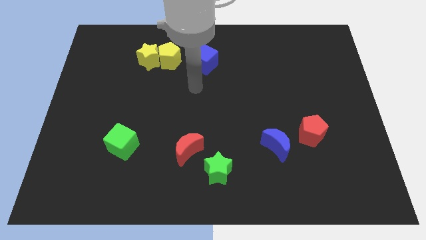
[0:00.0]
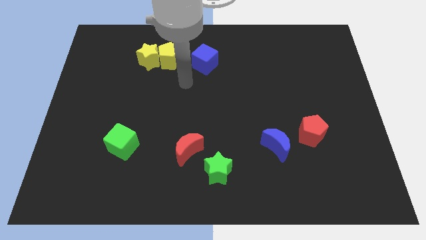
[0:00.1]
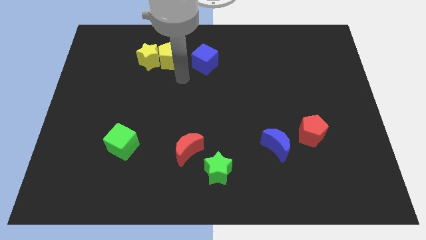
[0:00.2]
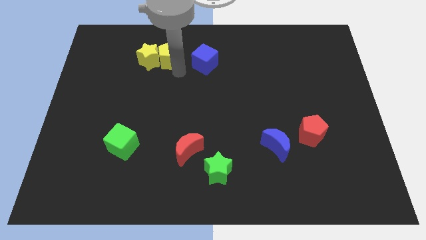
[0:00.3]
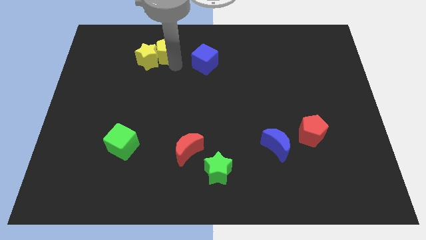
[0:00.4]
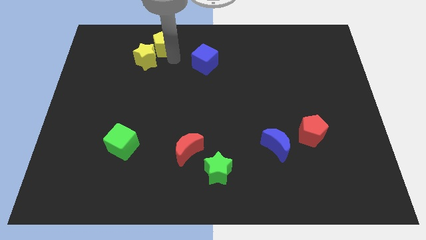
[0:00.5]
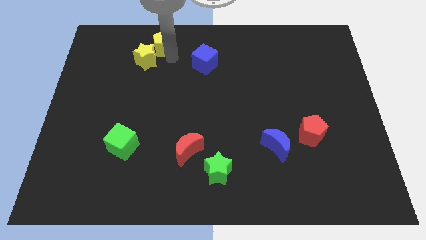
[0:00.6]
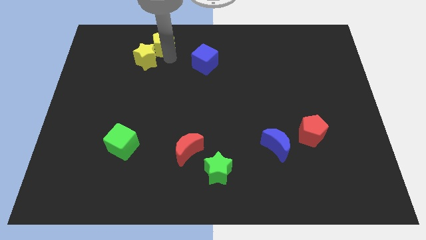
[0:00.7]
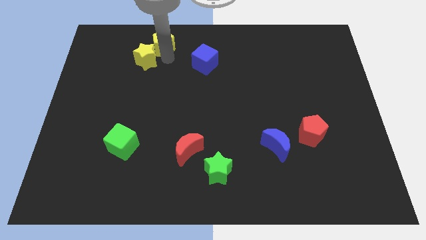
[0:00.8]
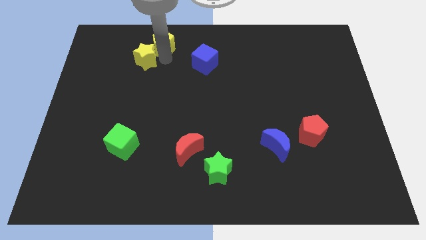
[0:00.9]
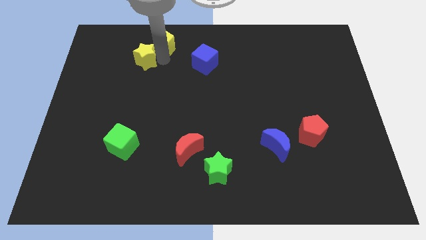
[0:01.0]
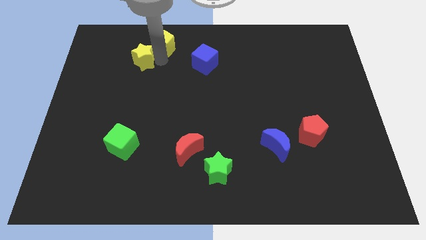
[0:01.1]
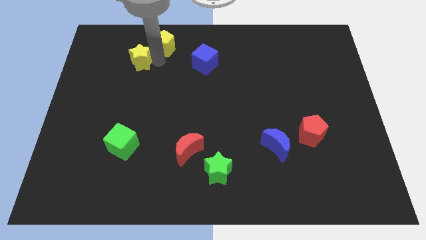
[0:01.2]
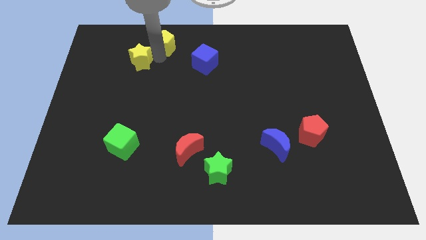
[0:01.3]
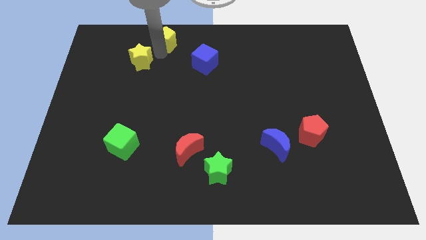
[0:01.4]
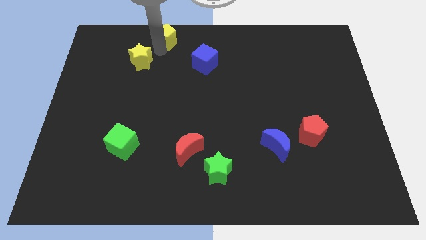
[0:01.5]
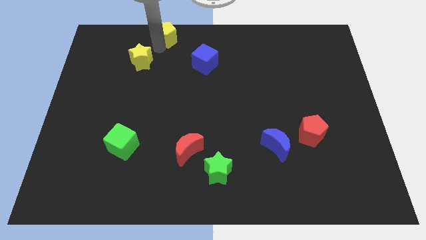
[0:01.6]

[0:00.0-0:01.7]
move the yellow star away from the yellow pentagon

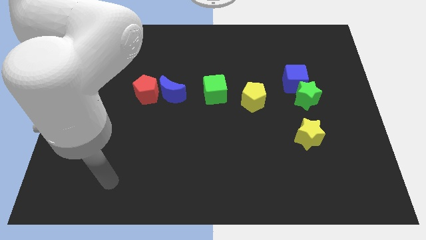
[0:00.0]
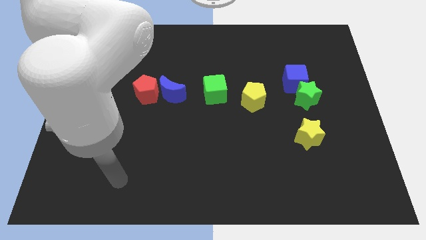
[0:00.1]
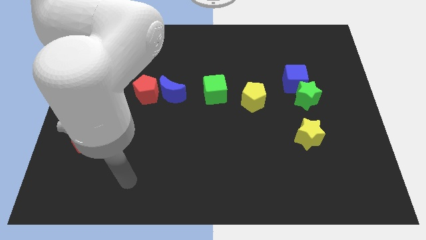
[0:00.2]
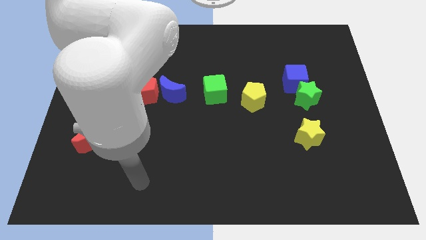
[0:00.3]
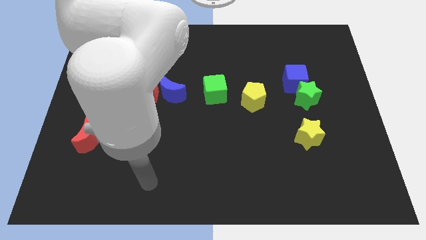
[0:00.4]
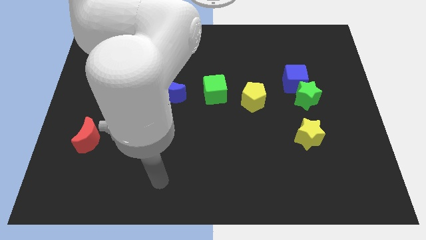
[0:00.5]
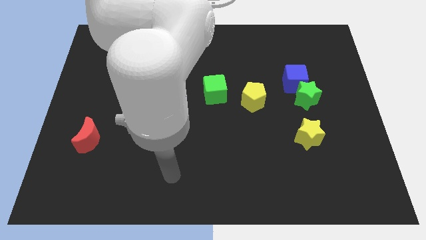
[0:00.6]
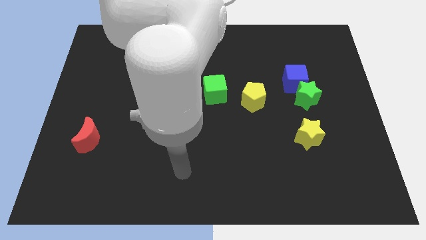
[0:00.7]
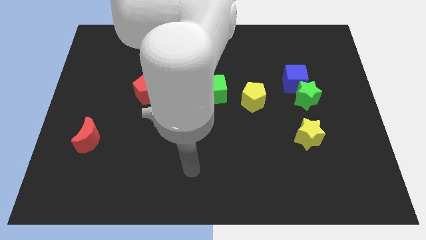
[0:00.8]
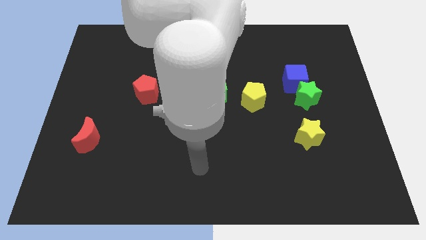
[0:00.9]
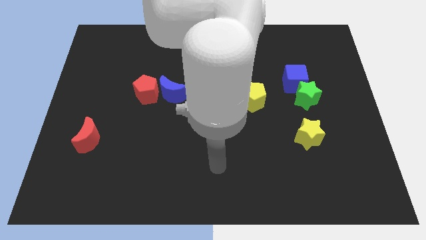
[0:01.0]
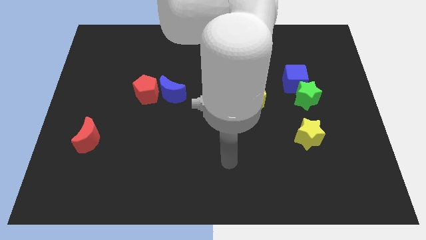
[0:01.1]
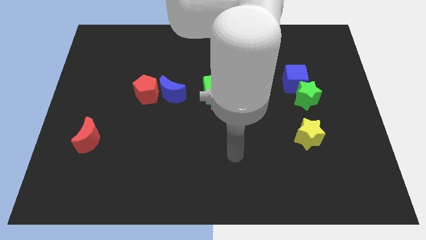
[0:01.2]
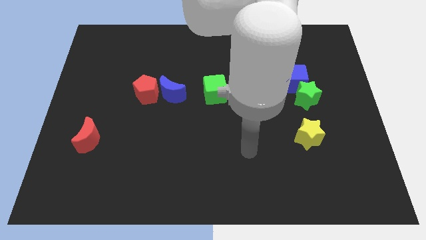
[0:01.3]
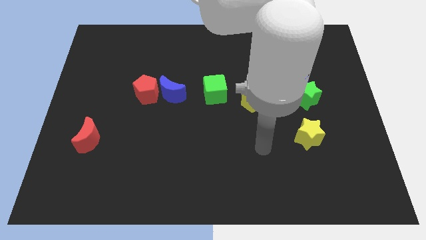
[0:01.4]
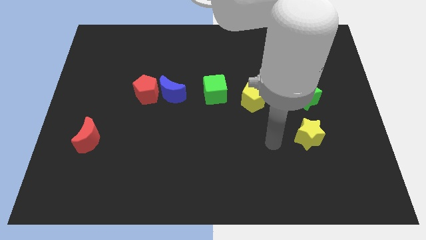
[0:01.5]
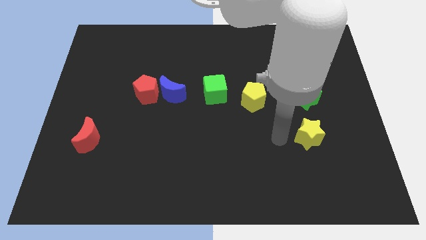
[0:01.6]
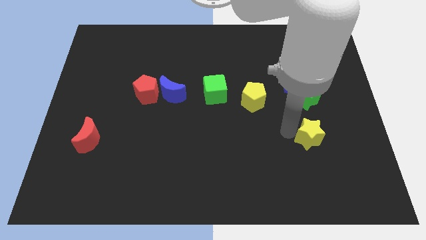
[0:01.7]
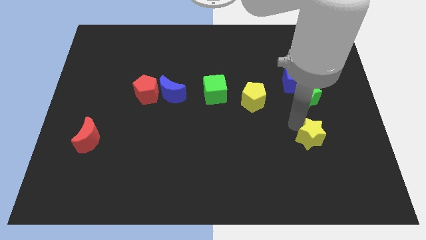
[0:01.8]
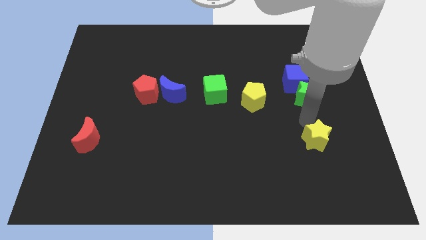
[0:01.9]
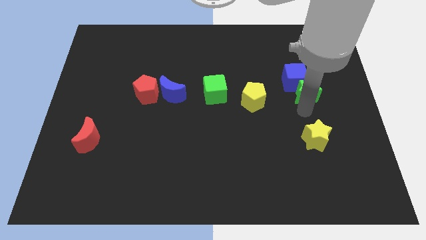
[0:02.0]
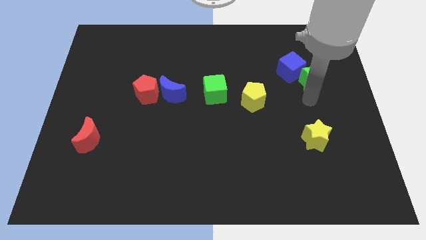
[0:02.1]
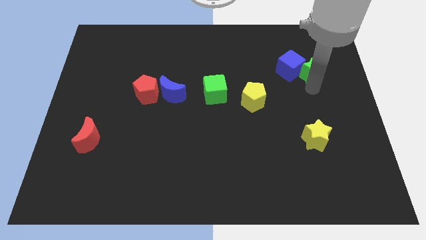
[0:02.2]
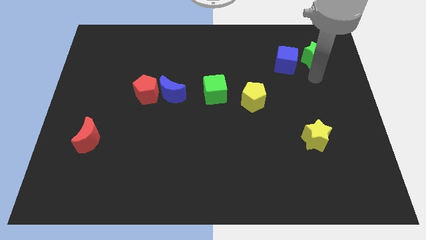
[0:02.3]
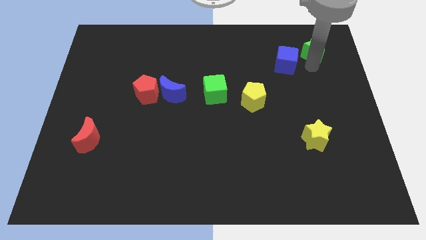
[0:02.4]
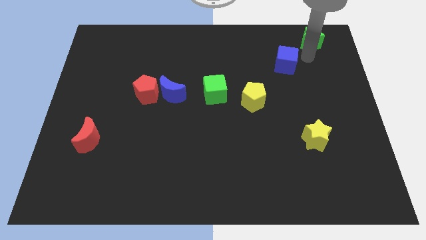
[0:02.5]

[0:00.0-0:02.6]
separate the blue cube from the green star

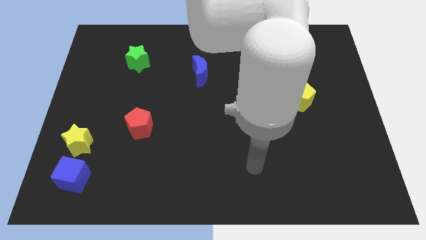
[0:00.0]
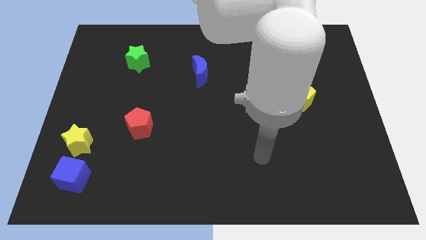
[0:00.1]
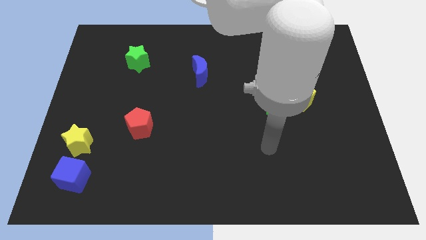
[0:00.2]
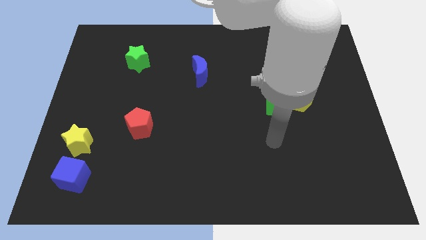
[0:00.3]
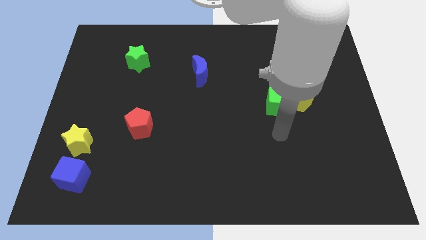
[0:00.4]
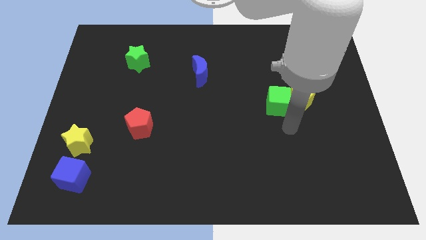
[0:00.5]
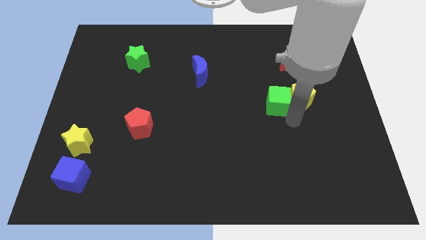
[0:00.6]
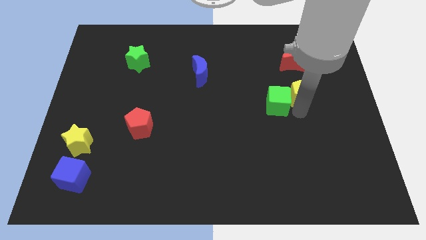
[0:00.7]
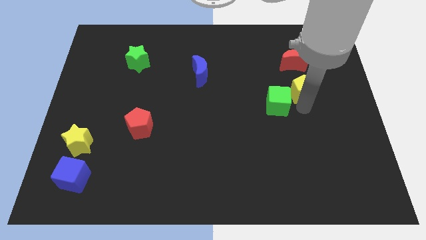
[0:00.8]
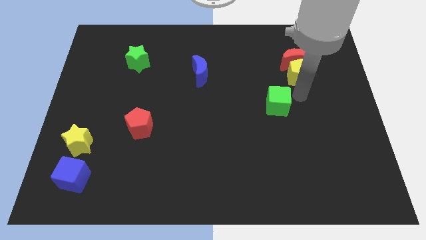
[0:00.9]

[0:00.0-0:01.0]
pull the green cube apart from the yellow pentagon

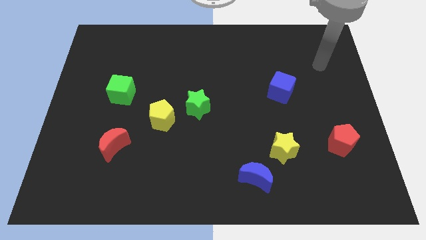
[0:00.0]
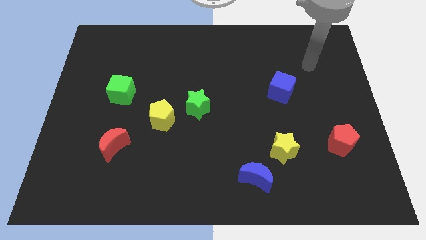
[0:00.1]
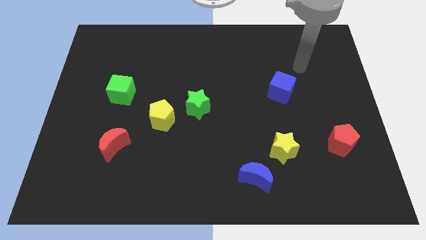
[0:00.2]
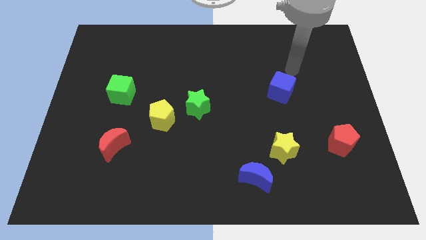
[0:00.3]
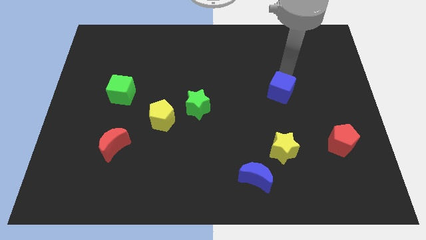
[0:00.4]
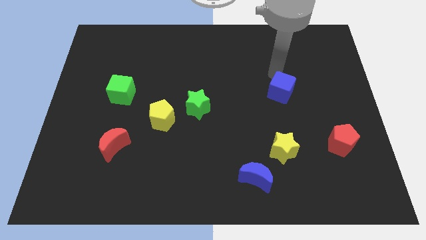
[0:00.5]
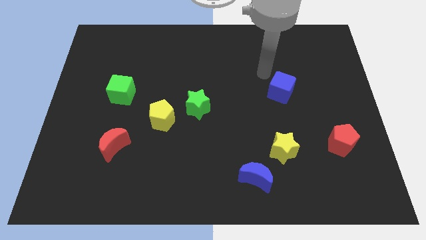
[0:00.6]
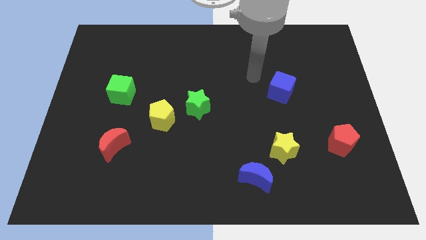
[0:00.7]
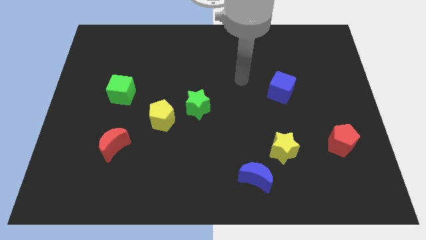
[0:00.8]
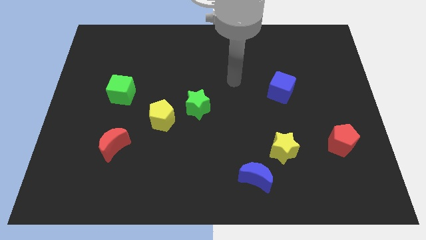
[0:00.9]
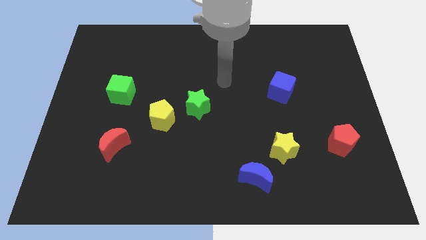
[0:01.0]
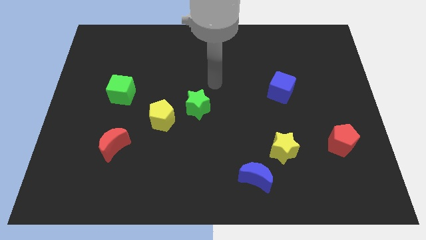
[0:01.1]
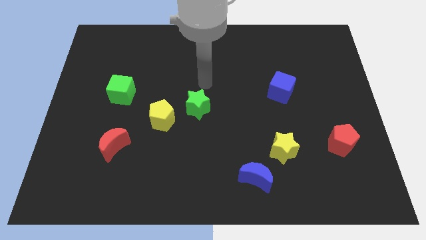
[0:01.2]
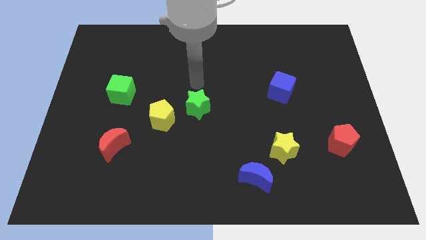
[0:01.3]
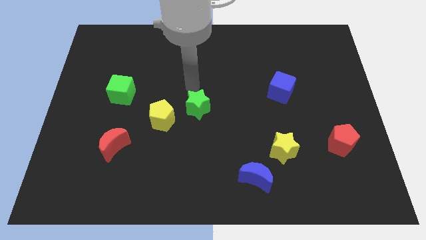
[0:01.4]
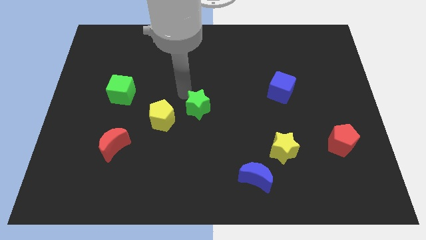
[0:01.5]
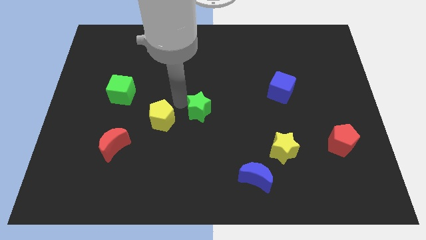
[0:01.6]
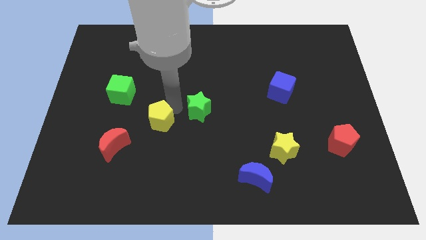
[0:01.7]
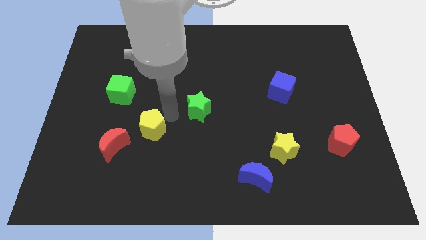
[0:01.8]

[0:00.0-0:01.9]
move the green star away from the yellow pentagon

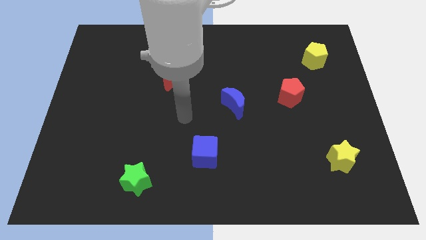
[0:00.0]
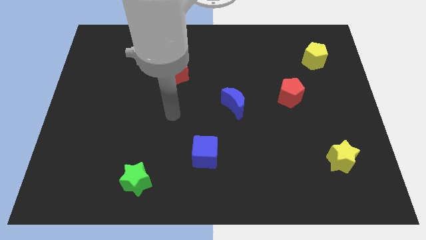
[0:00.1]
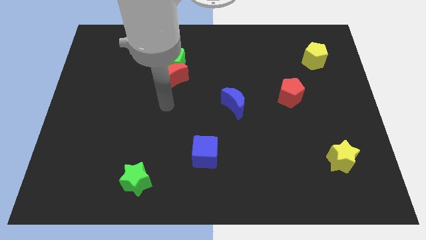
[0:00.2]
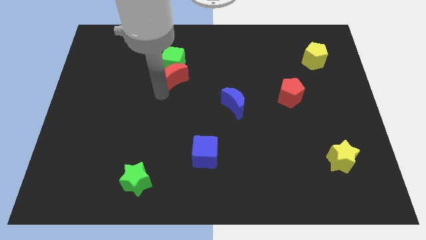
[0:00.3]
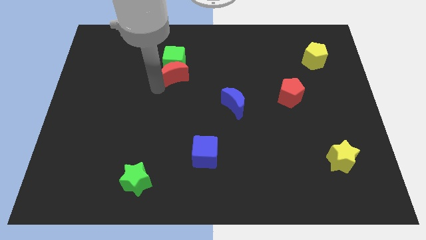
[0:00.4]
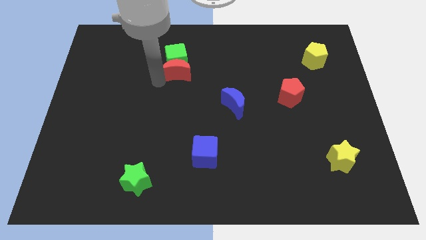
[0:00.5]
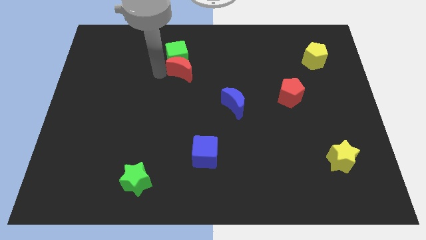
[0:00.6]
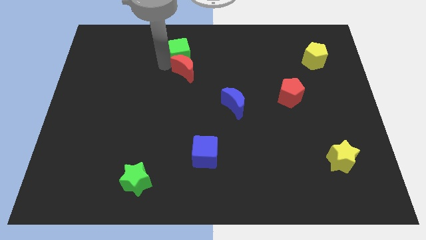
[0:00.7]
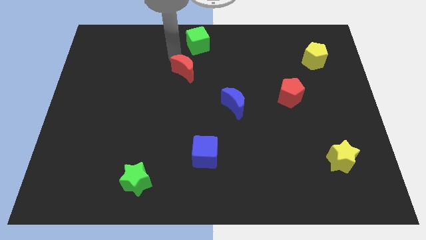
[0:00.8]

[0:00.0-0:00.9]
move the red moon away from the green cube

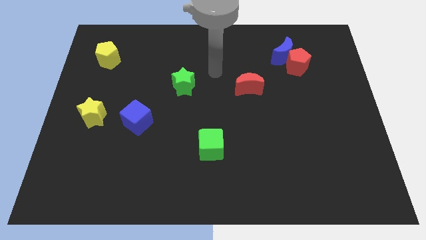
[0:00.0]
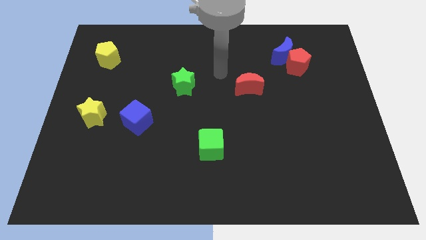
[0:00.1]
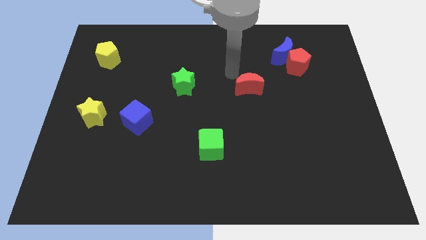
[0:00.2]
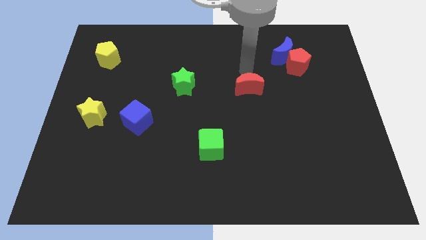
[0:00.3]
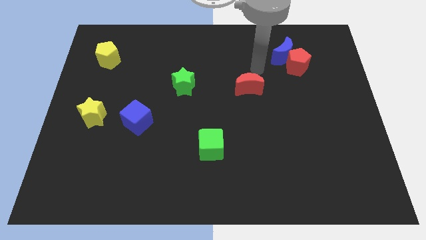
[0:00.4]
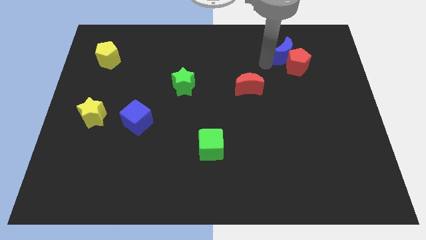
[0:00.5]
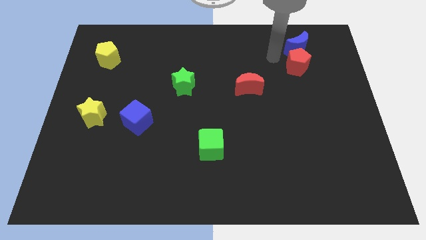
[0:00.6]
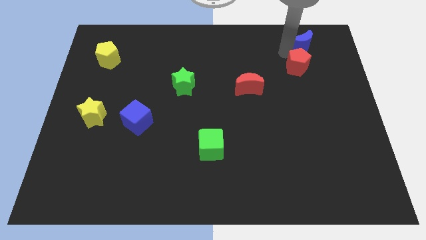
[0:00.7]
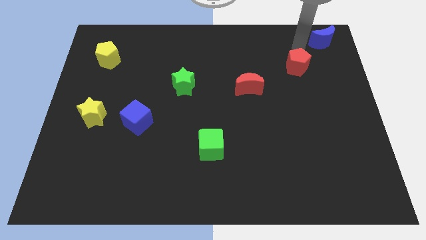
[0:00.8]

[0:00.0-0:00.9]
separate the red pentagon from the blue moon

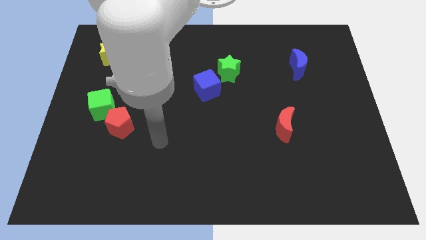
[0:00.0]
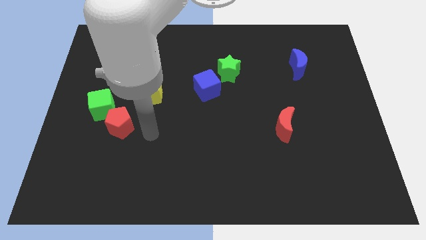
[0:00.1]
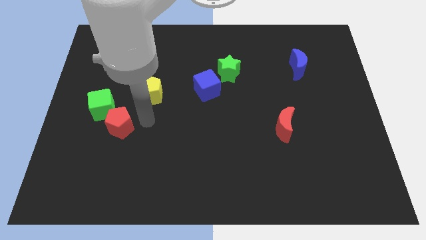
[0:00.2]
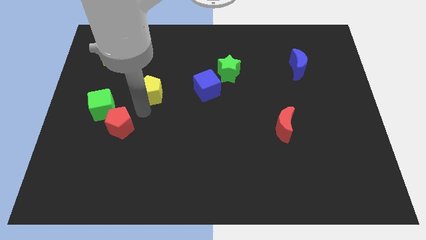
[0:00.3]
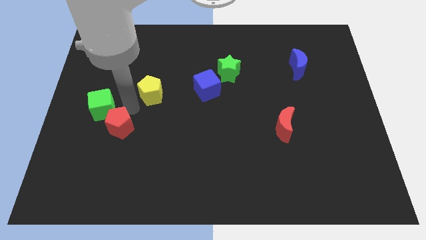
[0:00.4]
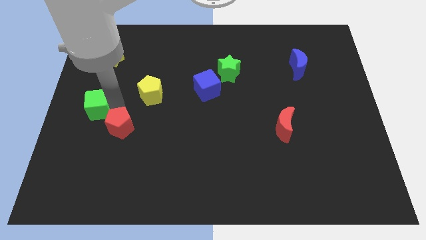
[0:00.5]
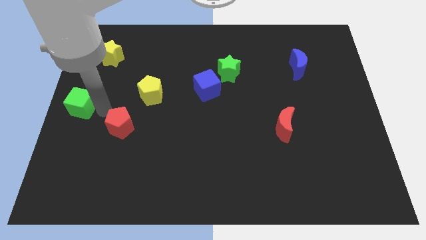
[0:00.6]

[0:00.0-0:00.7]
pull the red pentagon apart from the green cube
